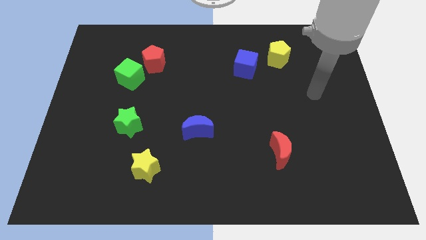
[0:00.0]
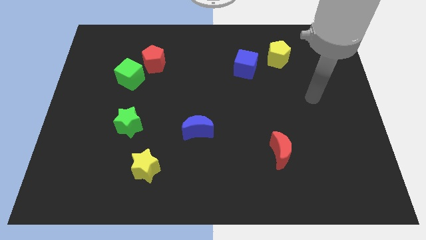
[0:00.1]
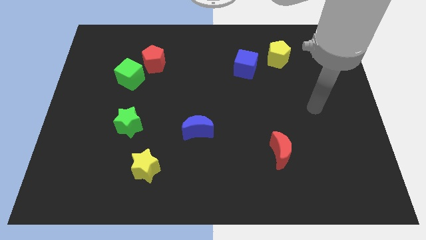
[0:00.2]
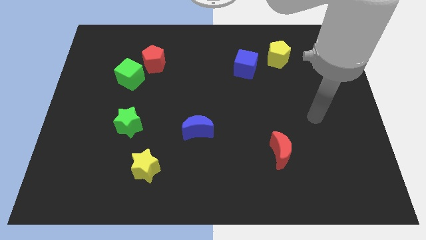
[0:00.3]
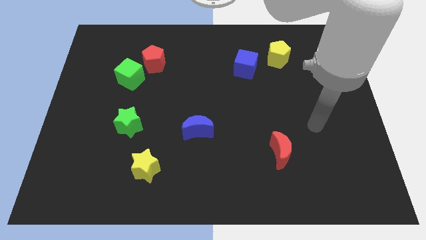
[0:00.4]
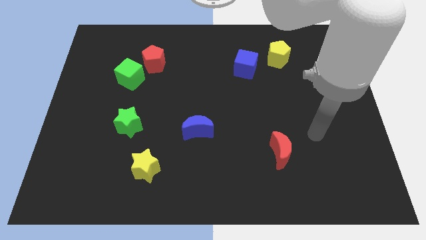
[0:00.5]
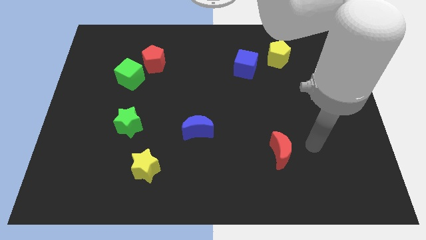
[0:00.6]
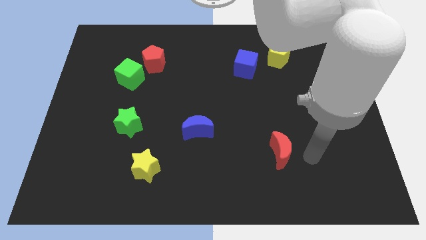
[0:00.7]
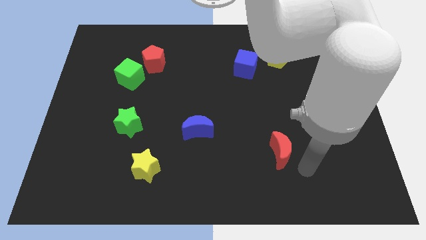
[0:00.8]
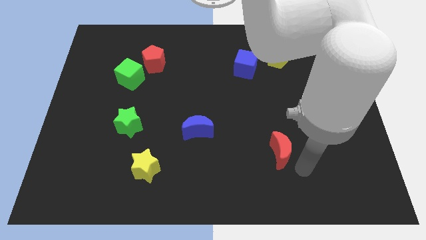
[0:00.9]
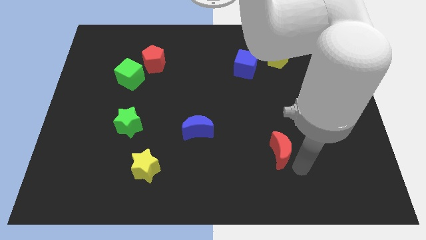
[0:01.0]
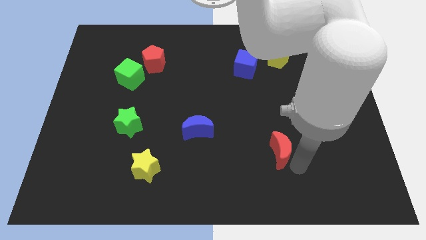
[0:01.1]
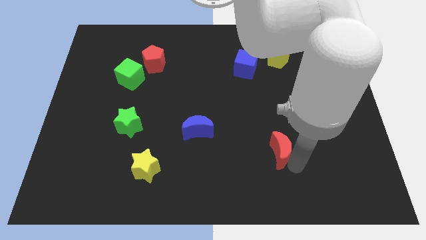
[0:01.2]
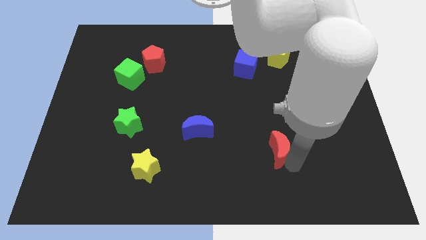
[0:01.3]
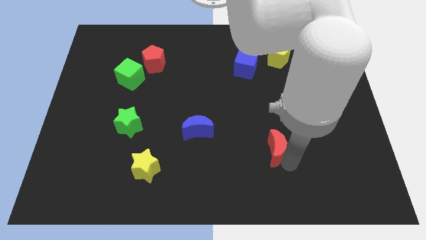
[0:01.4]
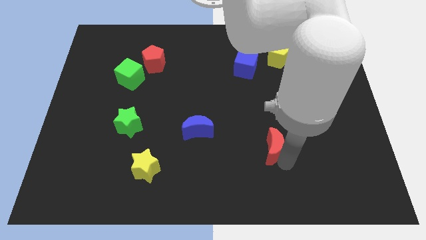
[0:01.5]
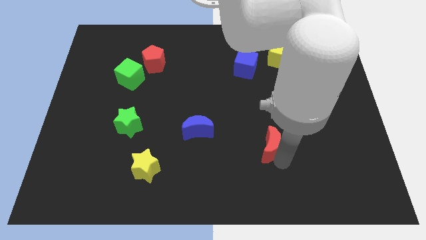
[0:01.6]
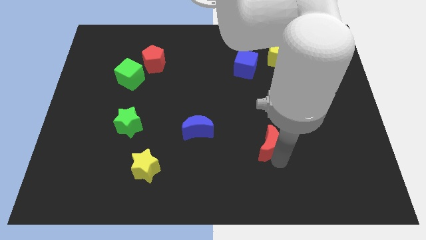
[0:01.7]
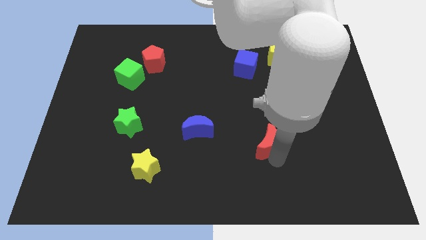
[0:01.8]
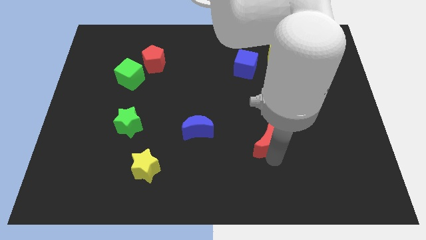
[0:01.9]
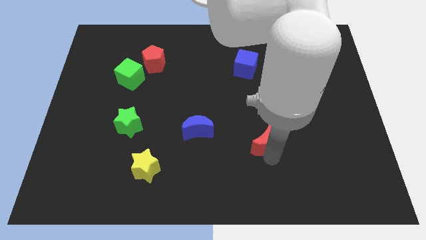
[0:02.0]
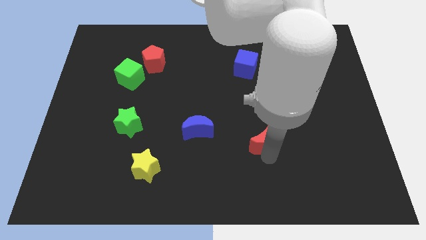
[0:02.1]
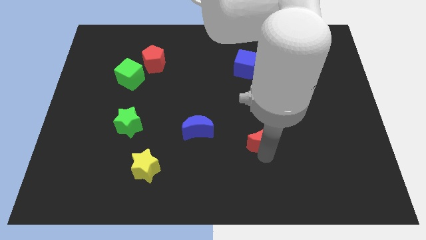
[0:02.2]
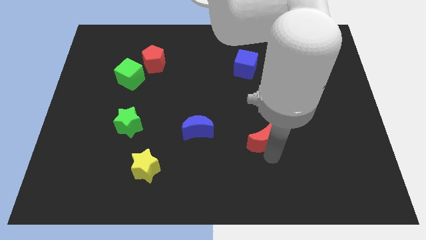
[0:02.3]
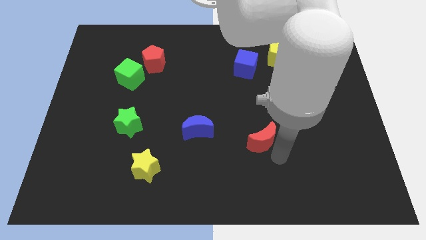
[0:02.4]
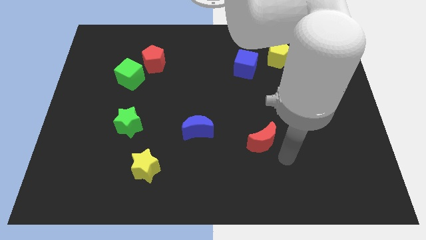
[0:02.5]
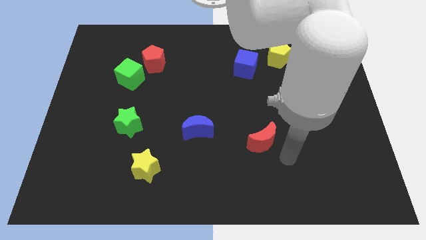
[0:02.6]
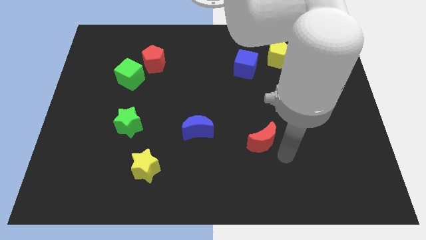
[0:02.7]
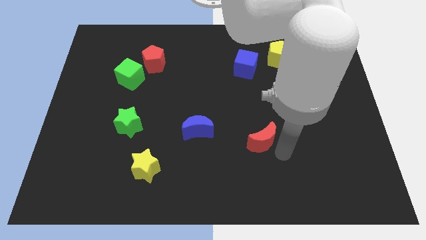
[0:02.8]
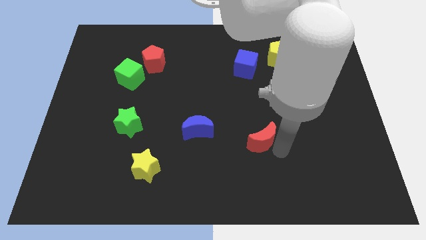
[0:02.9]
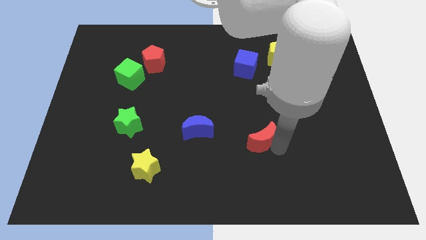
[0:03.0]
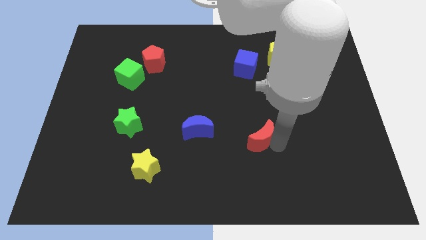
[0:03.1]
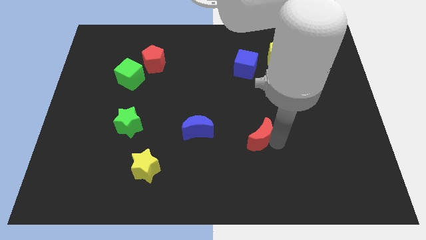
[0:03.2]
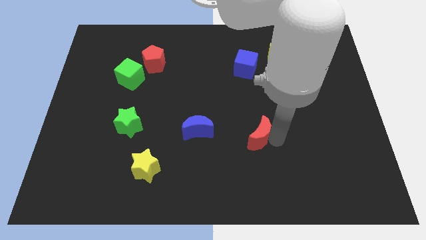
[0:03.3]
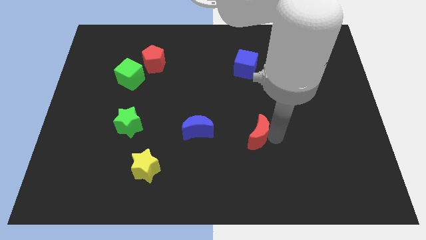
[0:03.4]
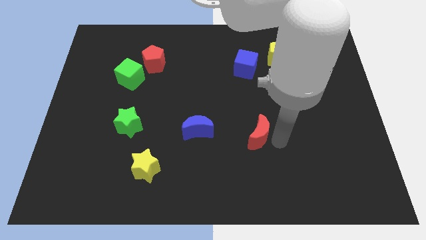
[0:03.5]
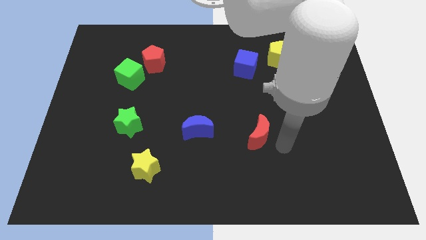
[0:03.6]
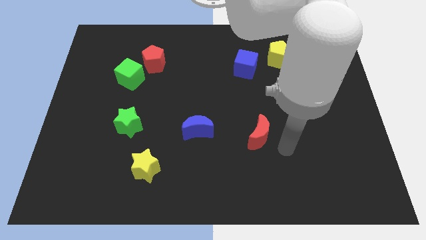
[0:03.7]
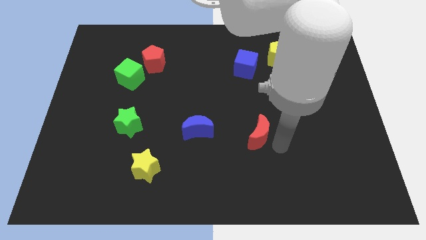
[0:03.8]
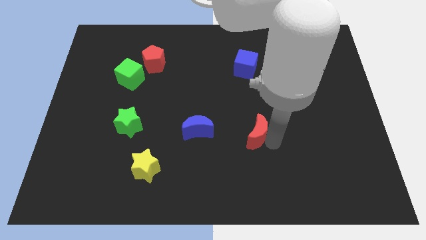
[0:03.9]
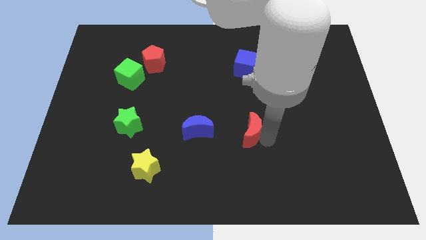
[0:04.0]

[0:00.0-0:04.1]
slightly slide the red moon upwards and left

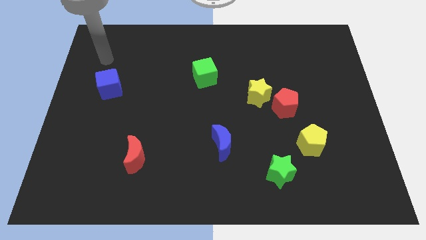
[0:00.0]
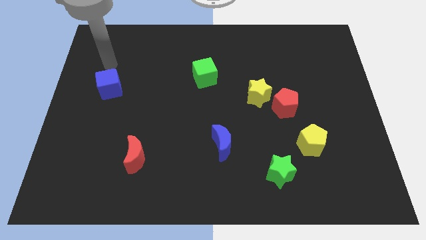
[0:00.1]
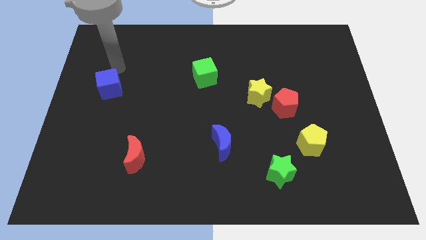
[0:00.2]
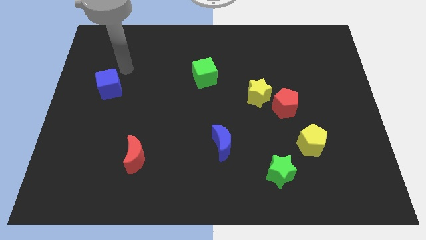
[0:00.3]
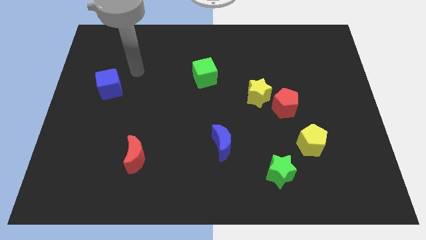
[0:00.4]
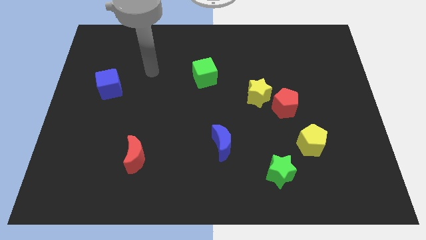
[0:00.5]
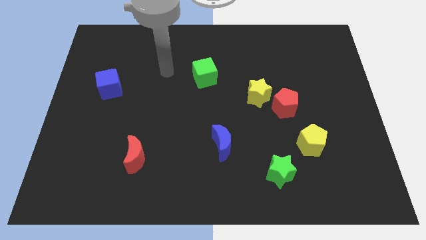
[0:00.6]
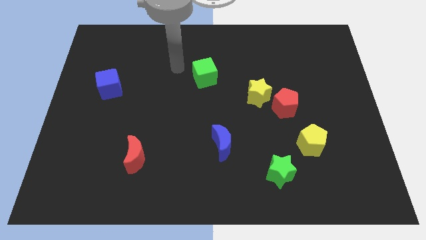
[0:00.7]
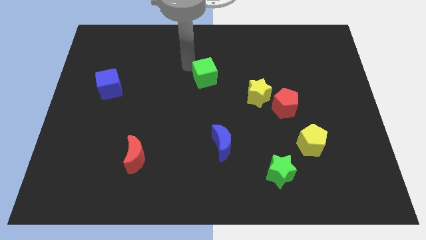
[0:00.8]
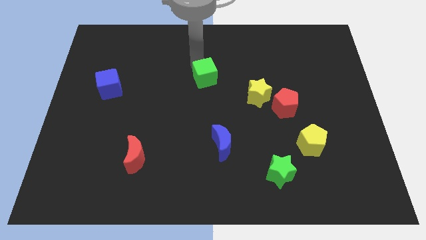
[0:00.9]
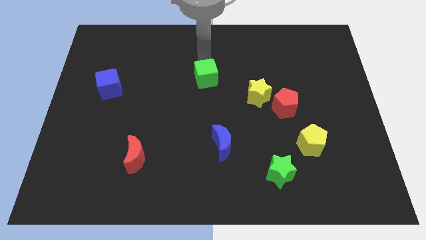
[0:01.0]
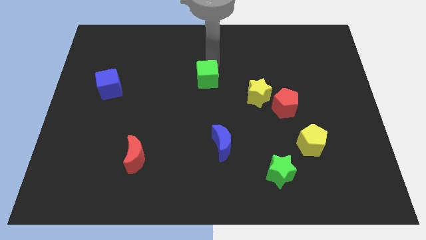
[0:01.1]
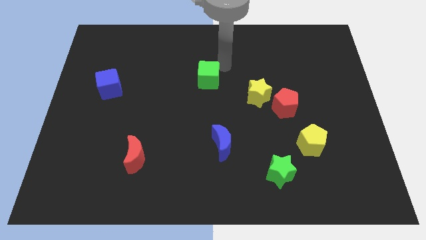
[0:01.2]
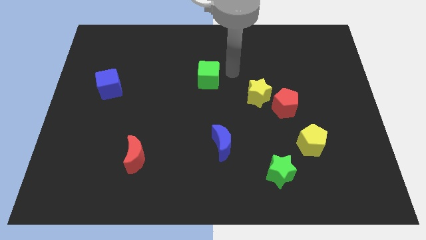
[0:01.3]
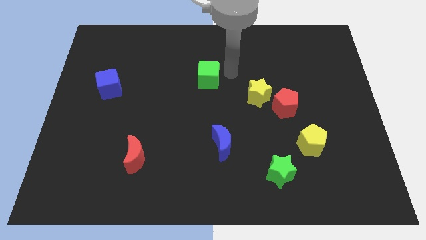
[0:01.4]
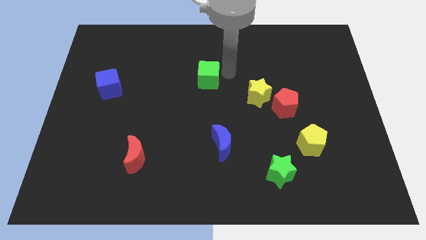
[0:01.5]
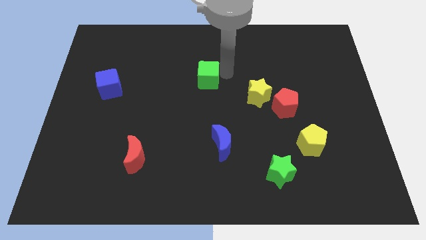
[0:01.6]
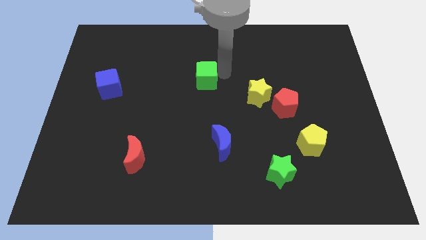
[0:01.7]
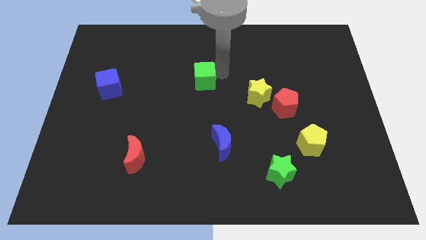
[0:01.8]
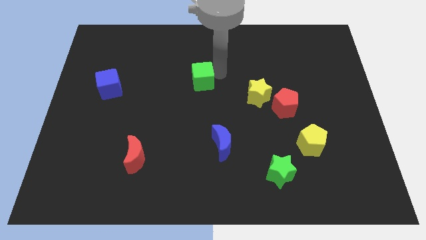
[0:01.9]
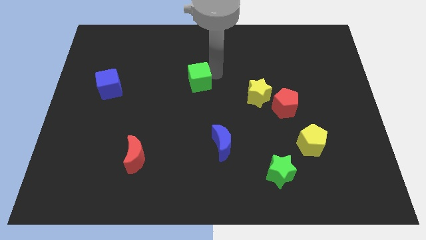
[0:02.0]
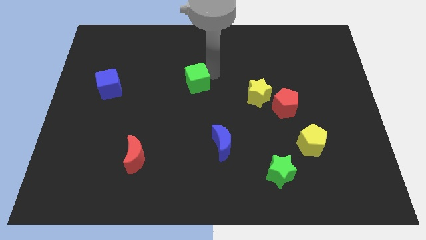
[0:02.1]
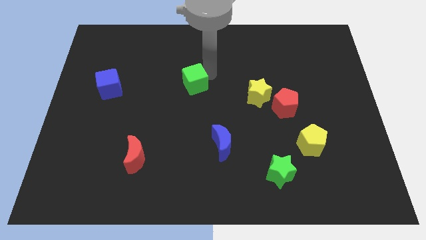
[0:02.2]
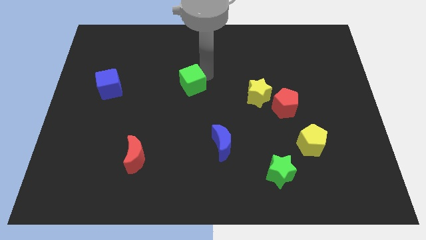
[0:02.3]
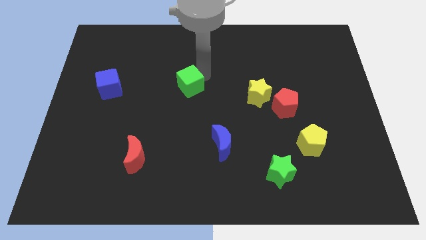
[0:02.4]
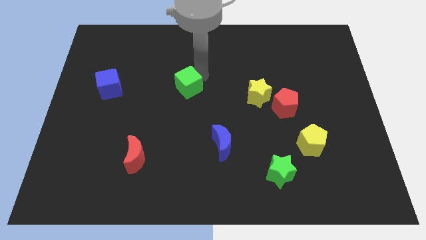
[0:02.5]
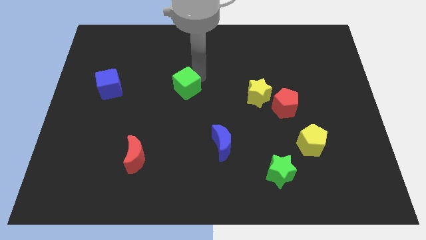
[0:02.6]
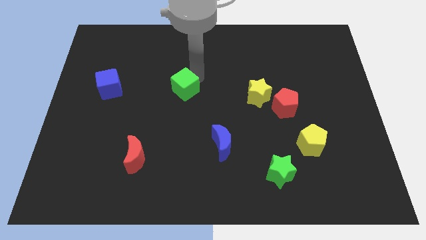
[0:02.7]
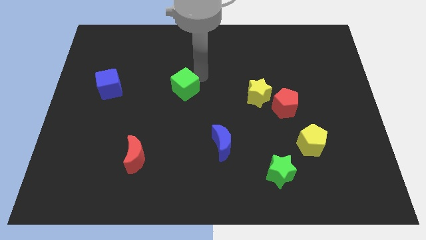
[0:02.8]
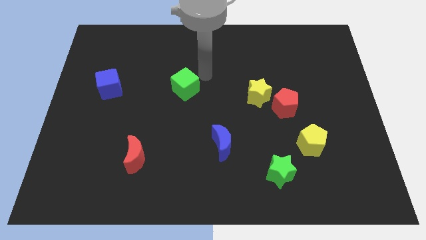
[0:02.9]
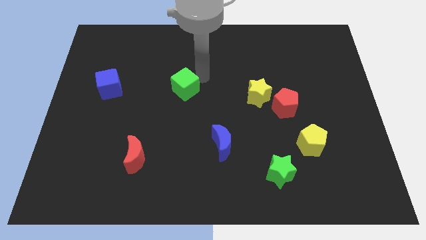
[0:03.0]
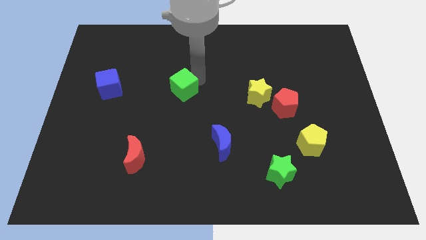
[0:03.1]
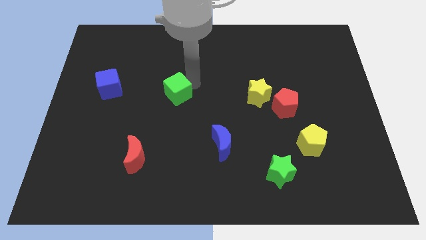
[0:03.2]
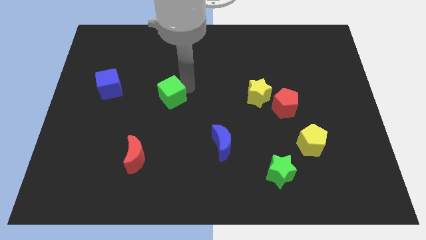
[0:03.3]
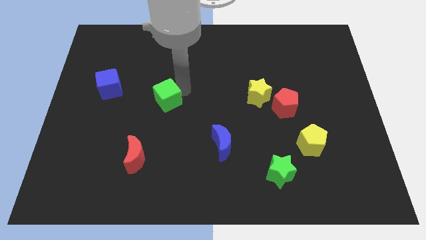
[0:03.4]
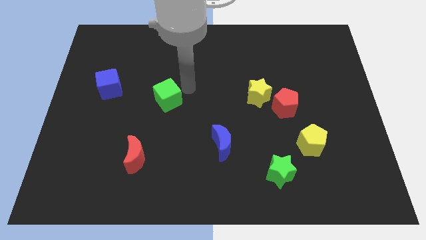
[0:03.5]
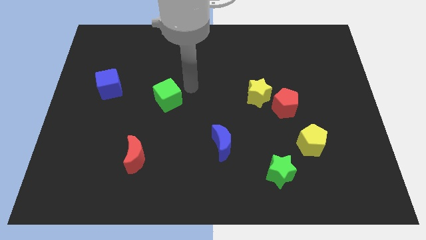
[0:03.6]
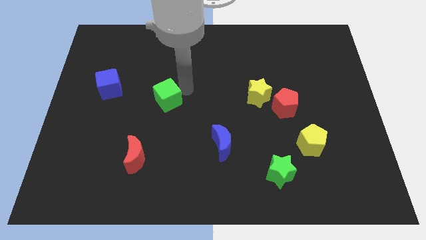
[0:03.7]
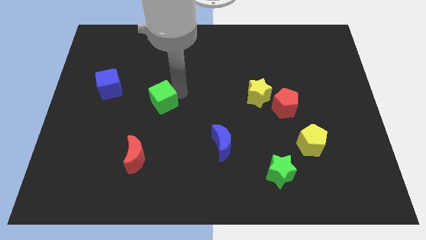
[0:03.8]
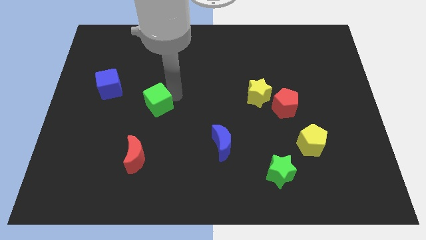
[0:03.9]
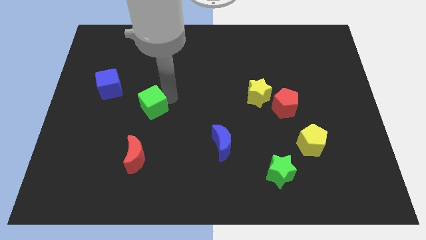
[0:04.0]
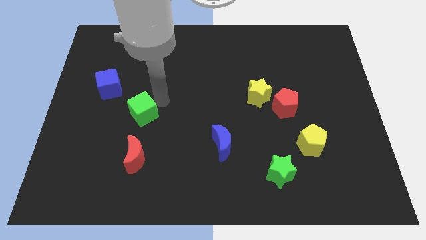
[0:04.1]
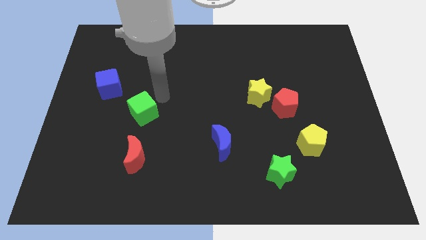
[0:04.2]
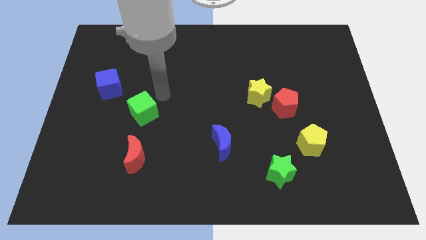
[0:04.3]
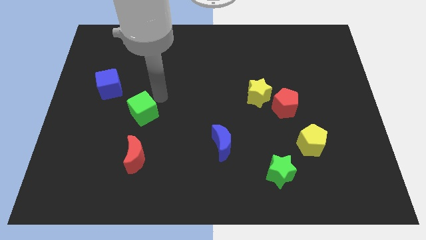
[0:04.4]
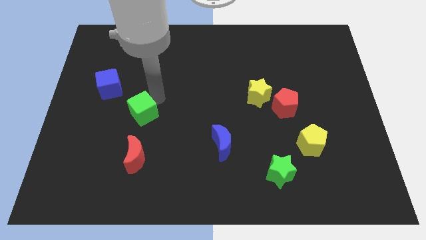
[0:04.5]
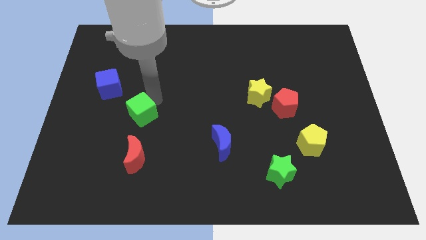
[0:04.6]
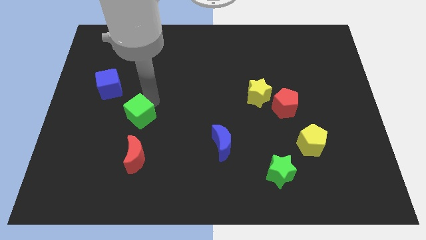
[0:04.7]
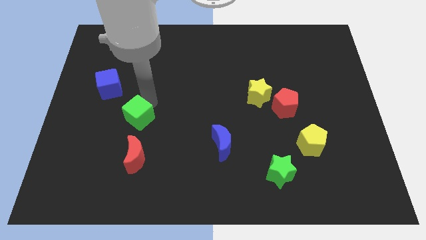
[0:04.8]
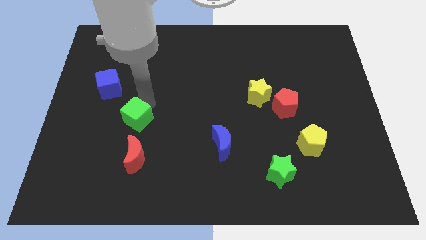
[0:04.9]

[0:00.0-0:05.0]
slide the green cube down and left diagonally
